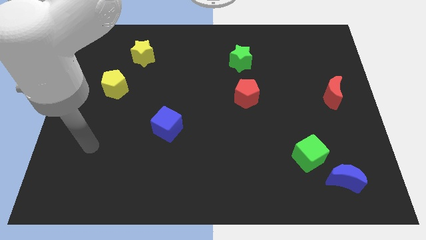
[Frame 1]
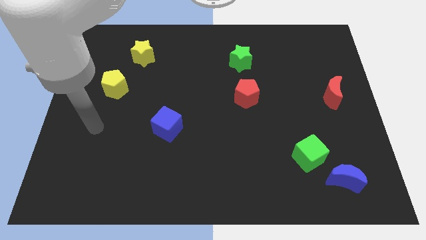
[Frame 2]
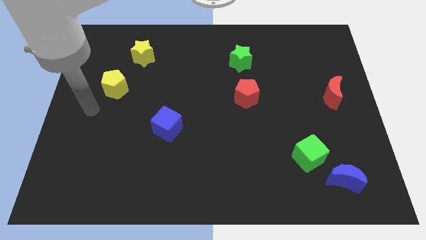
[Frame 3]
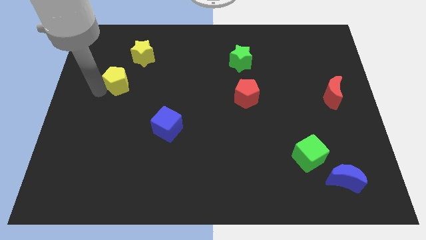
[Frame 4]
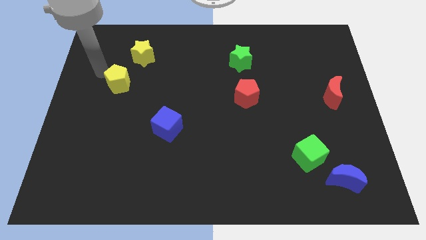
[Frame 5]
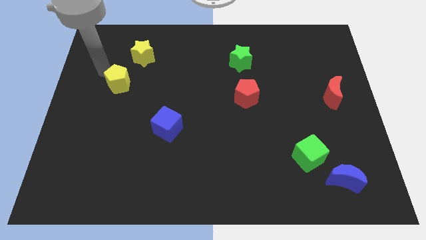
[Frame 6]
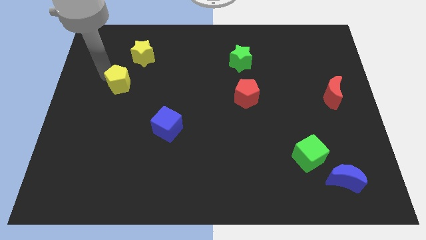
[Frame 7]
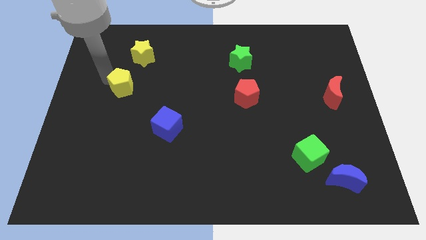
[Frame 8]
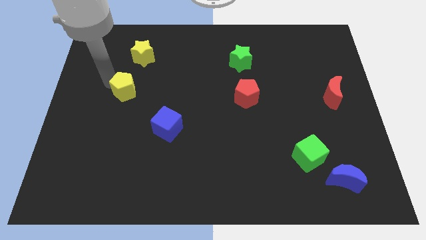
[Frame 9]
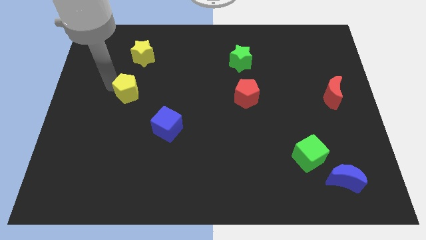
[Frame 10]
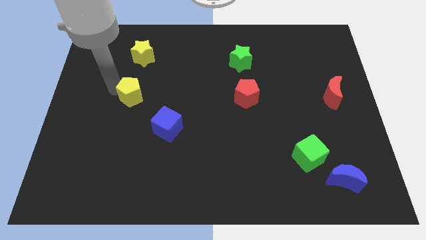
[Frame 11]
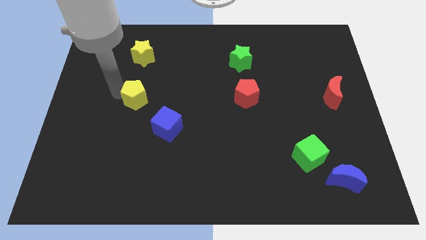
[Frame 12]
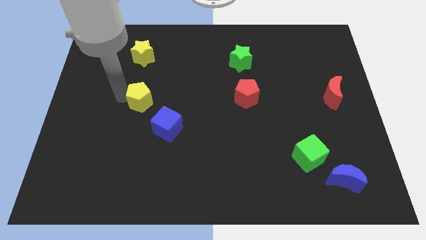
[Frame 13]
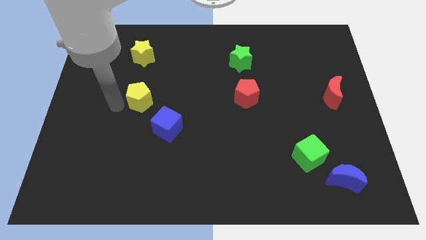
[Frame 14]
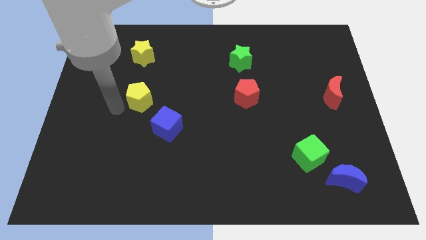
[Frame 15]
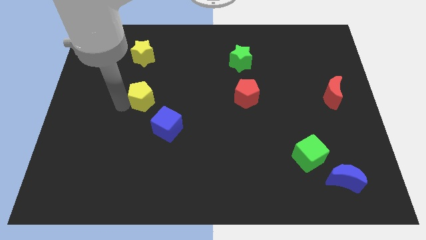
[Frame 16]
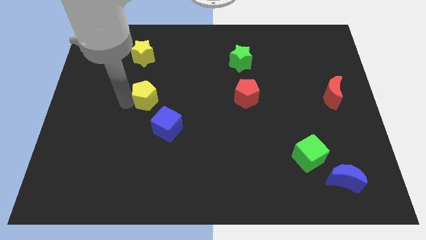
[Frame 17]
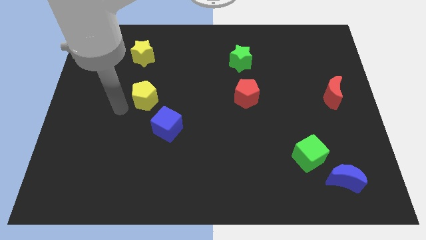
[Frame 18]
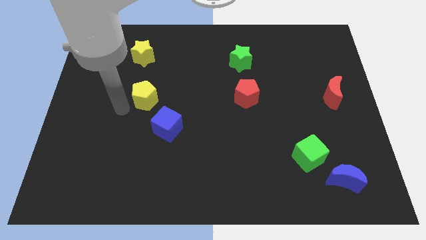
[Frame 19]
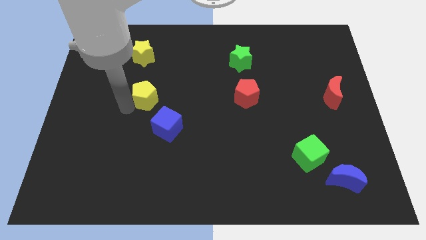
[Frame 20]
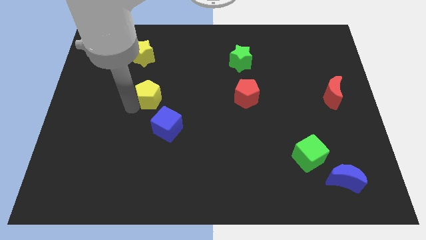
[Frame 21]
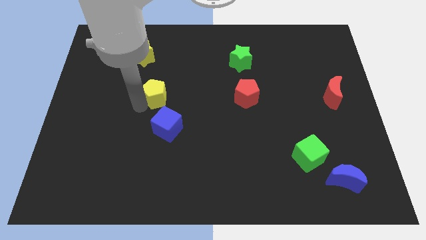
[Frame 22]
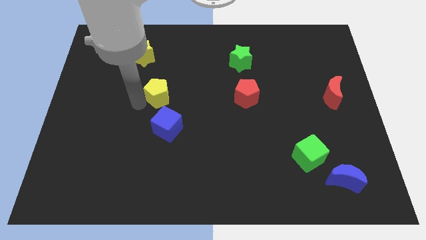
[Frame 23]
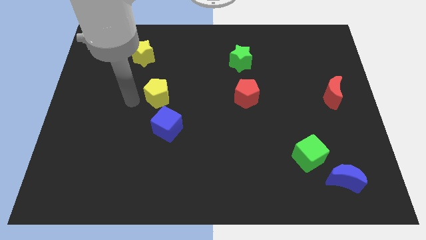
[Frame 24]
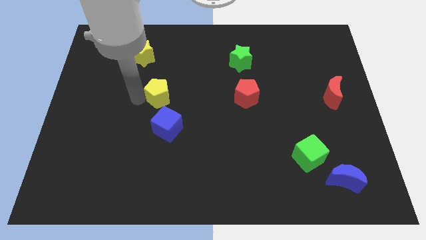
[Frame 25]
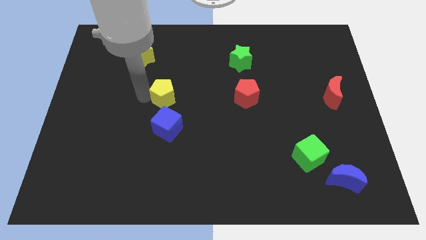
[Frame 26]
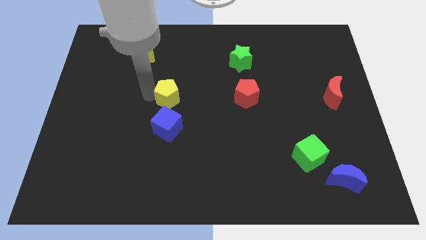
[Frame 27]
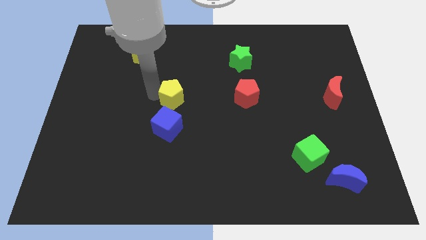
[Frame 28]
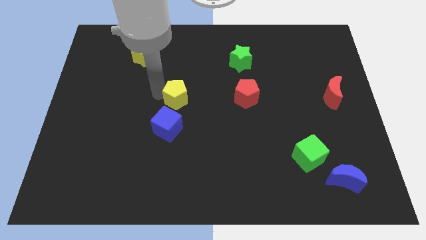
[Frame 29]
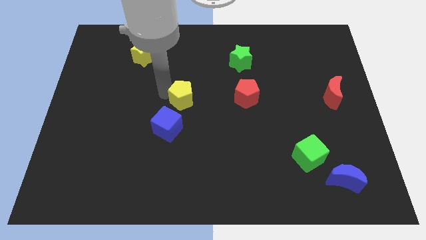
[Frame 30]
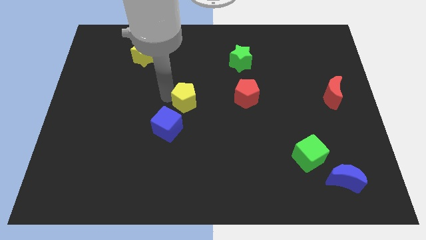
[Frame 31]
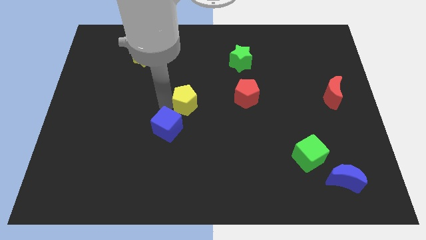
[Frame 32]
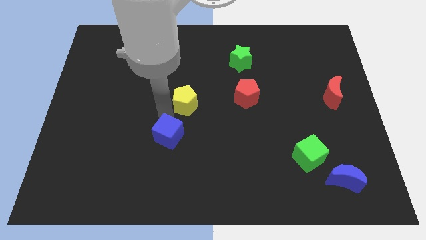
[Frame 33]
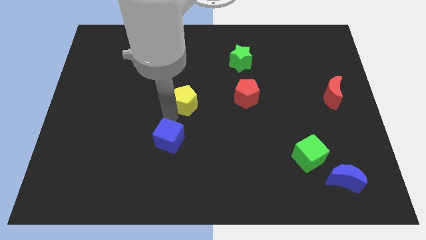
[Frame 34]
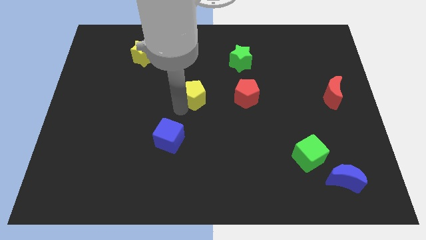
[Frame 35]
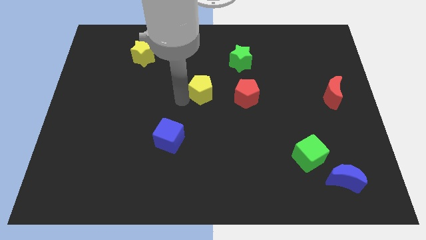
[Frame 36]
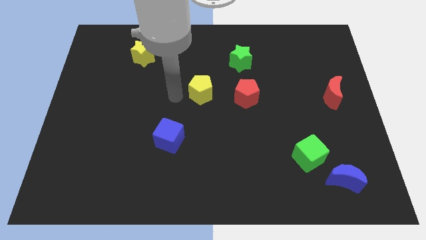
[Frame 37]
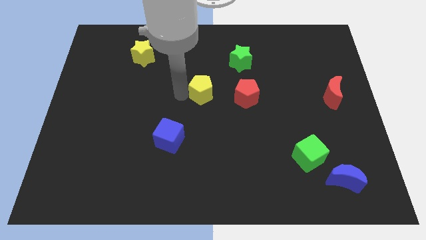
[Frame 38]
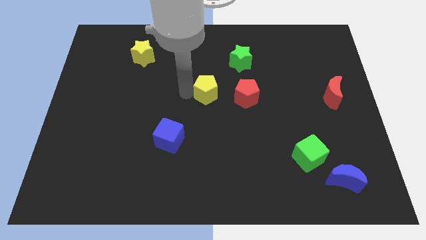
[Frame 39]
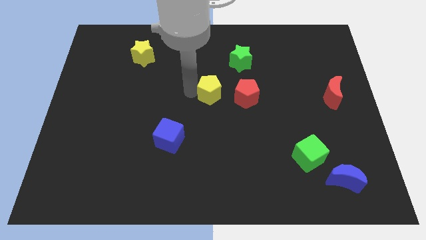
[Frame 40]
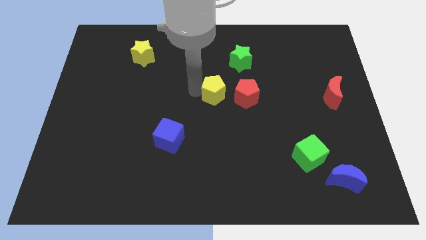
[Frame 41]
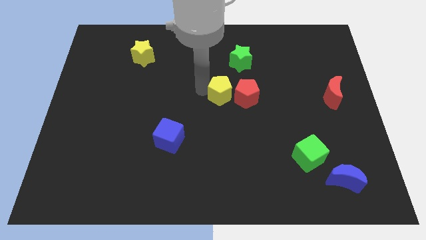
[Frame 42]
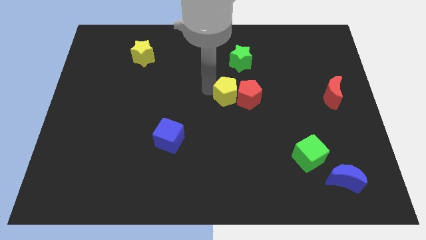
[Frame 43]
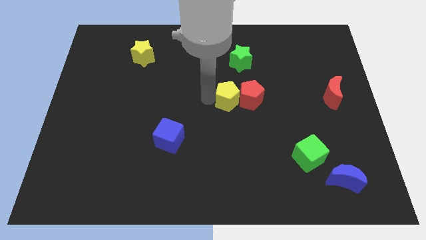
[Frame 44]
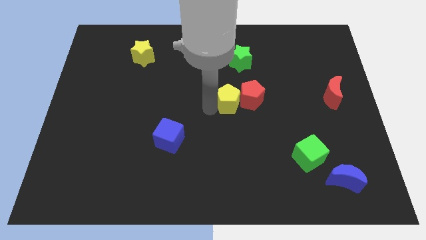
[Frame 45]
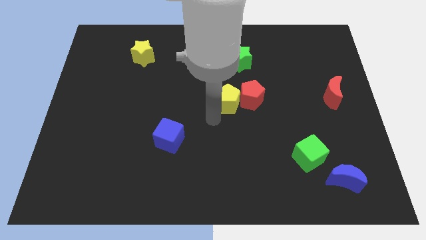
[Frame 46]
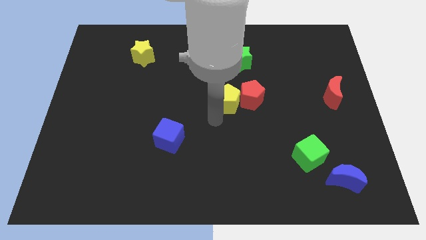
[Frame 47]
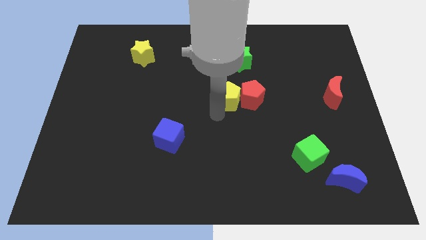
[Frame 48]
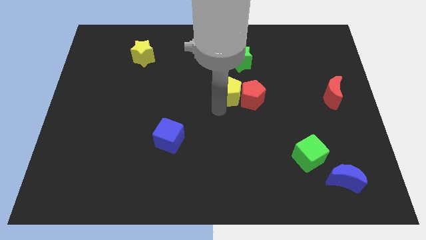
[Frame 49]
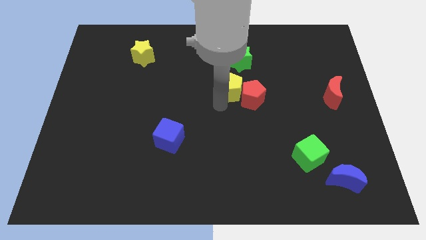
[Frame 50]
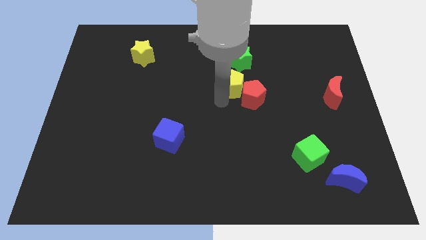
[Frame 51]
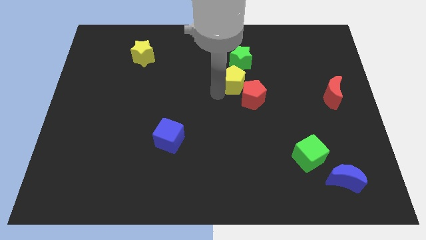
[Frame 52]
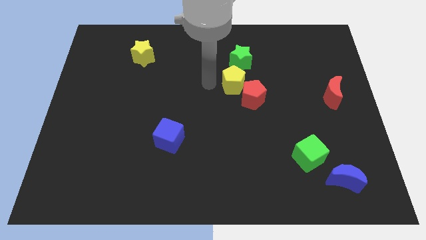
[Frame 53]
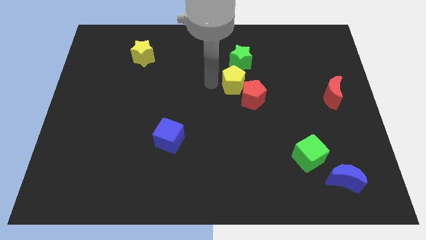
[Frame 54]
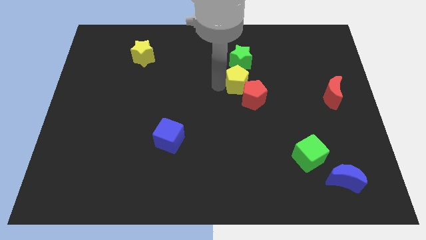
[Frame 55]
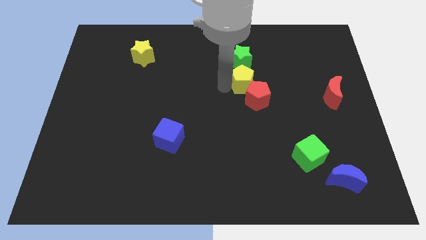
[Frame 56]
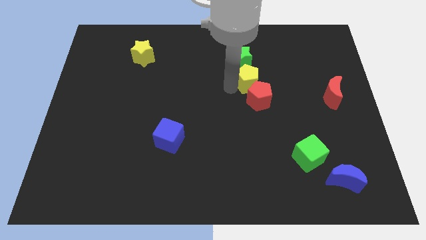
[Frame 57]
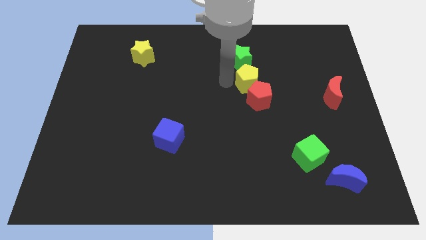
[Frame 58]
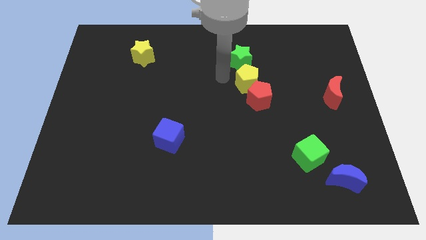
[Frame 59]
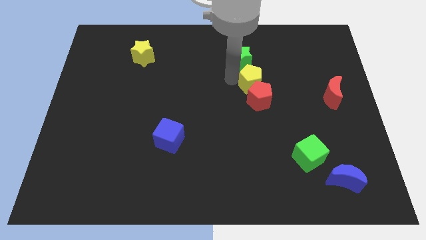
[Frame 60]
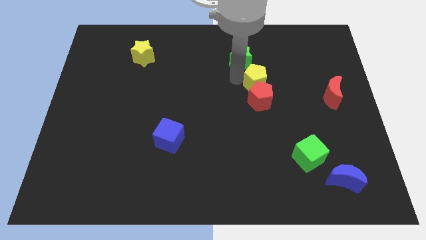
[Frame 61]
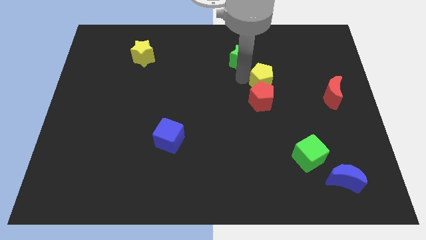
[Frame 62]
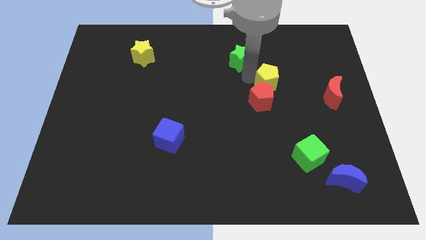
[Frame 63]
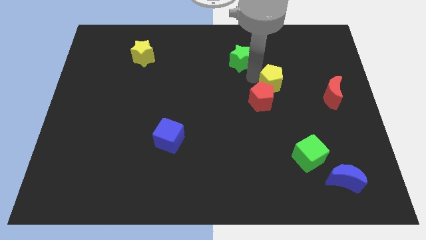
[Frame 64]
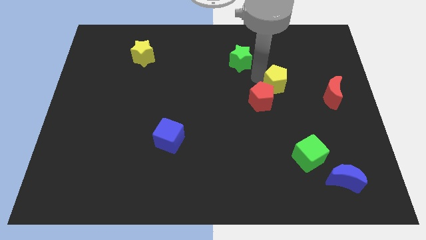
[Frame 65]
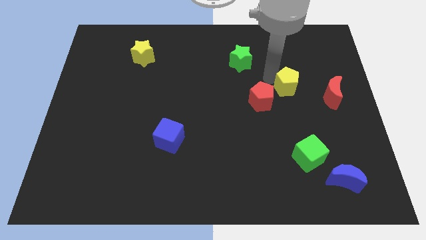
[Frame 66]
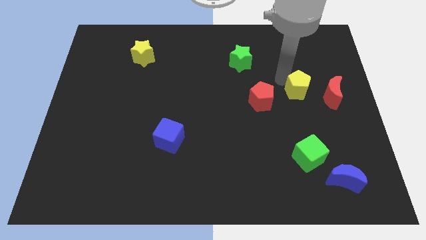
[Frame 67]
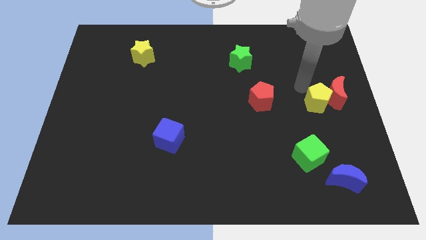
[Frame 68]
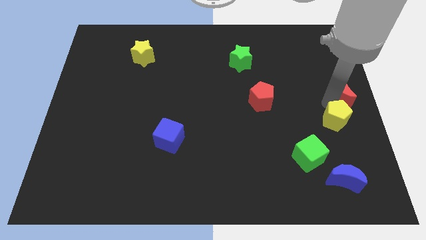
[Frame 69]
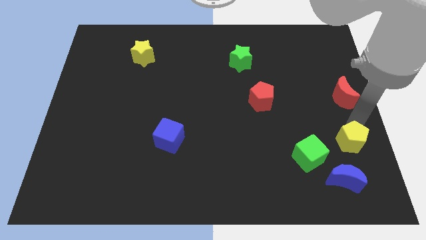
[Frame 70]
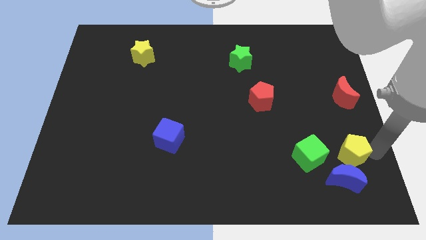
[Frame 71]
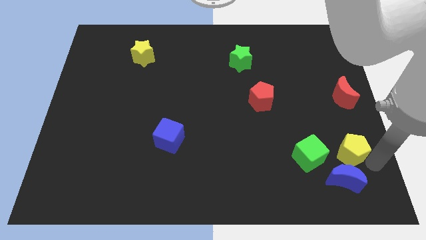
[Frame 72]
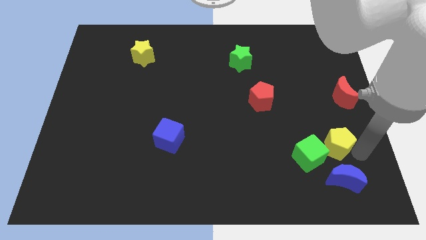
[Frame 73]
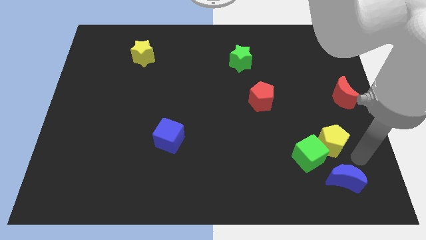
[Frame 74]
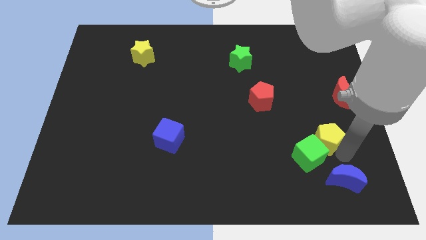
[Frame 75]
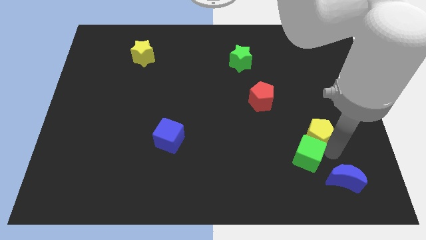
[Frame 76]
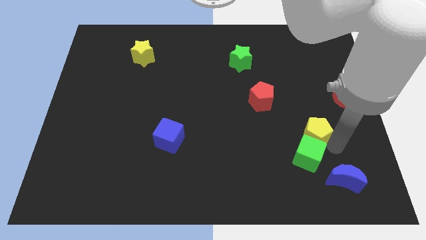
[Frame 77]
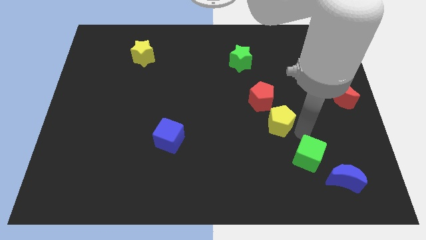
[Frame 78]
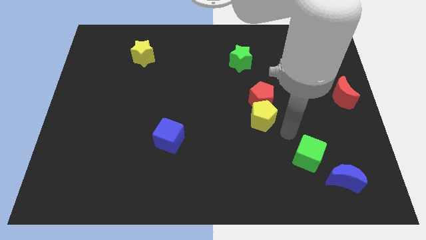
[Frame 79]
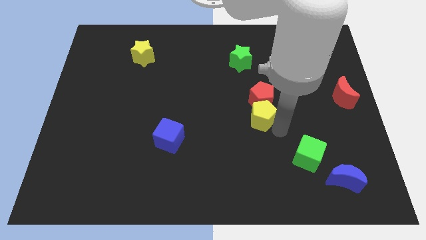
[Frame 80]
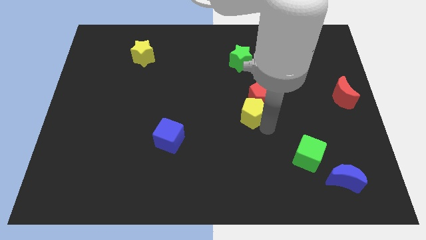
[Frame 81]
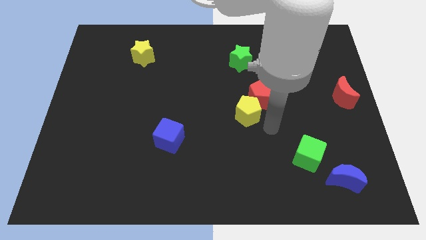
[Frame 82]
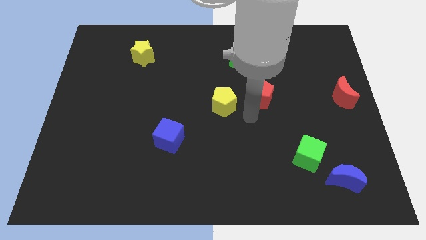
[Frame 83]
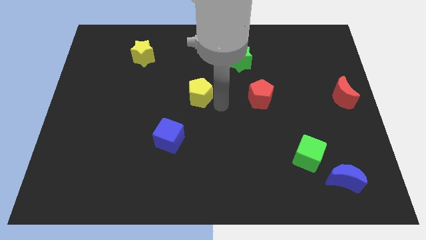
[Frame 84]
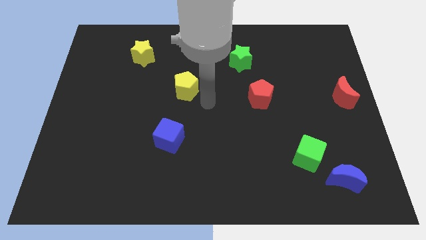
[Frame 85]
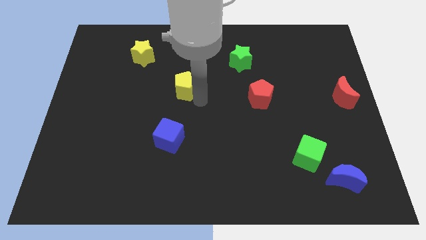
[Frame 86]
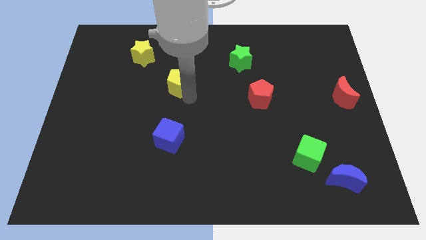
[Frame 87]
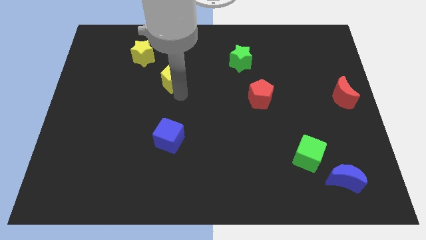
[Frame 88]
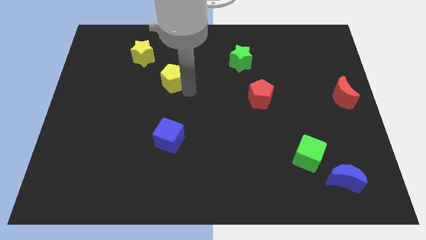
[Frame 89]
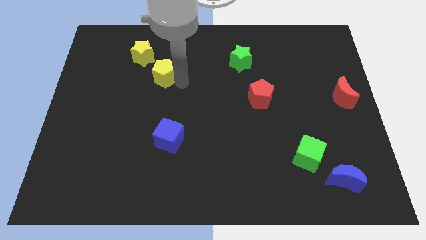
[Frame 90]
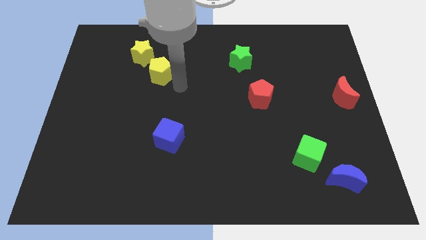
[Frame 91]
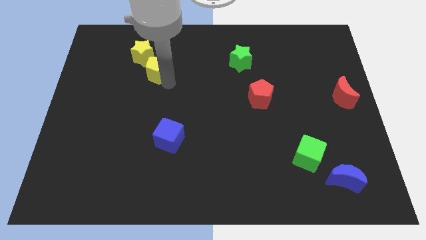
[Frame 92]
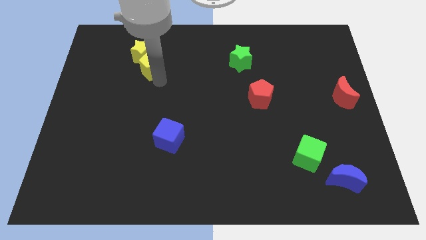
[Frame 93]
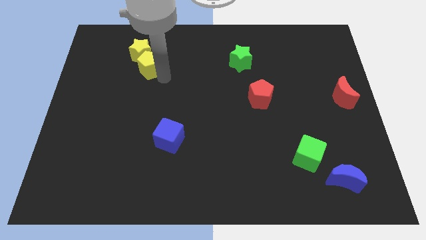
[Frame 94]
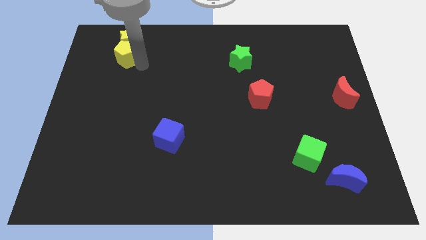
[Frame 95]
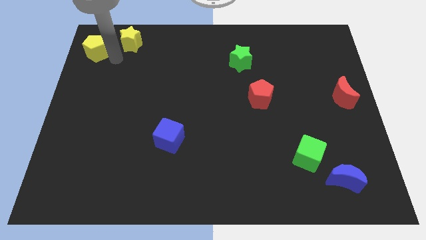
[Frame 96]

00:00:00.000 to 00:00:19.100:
put the yellow pentagon to the top left
